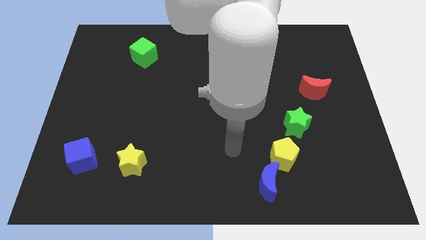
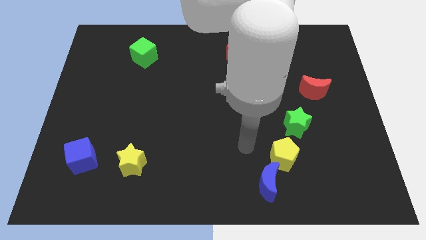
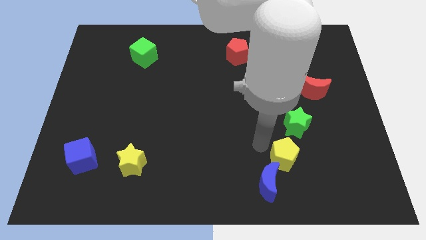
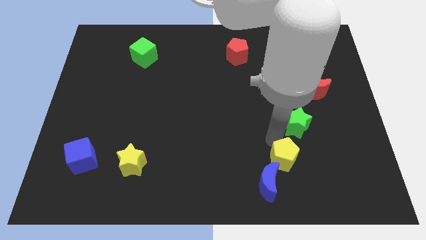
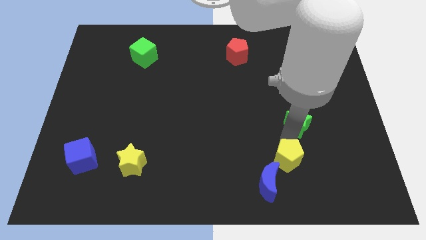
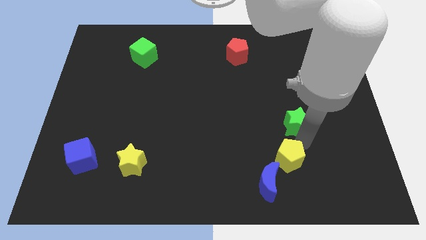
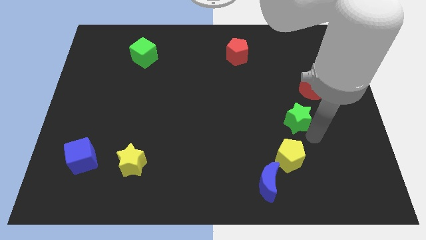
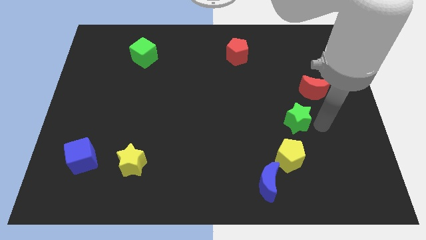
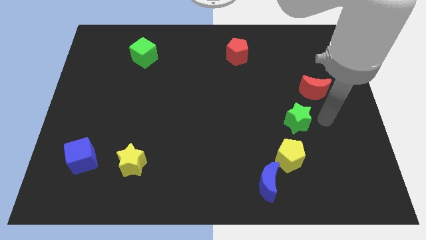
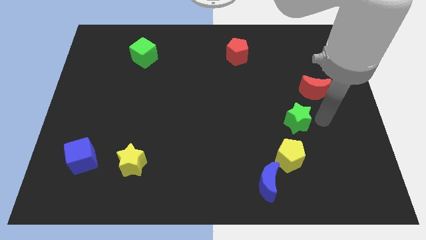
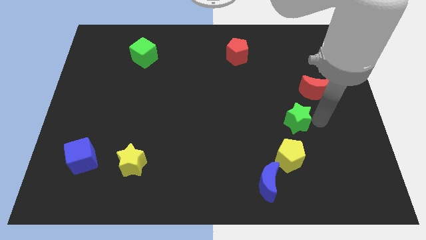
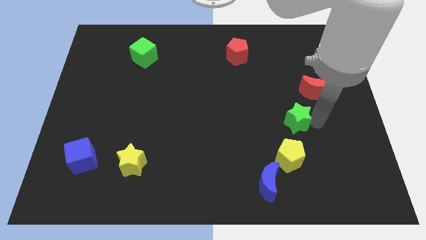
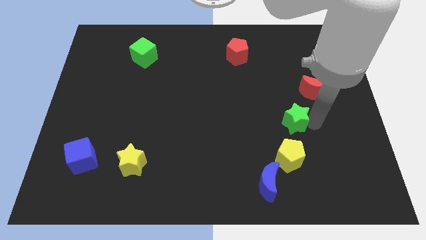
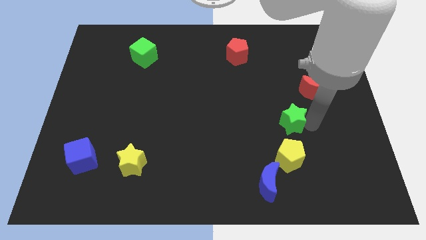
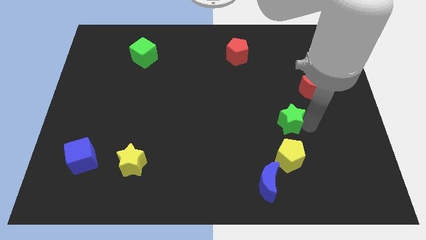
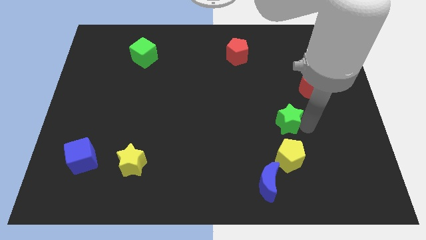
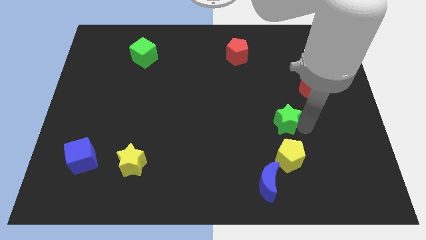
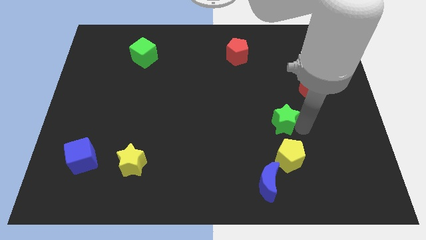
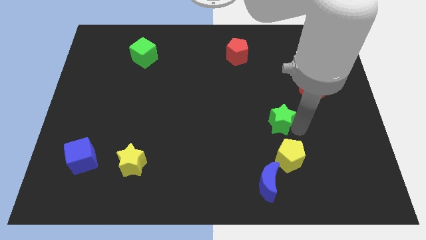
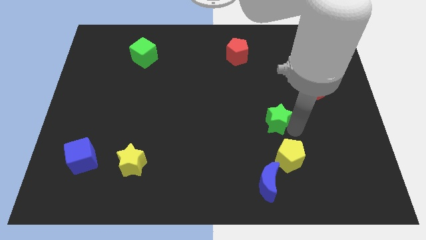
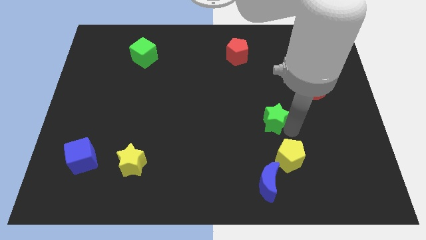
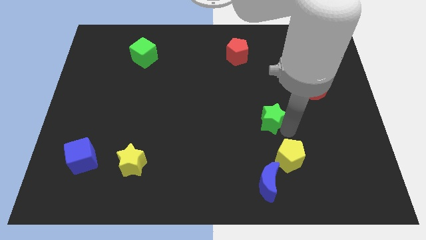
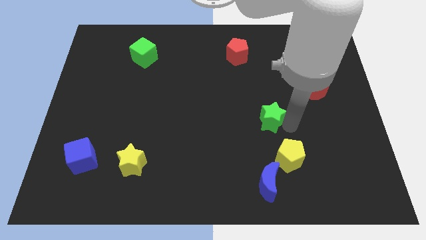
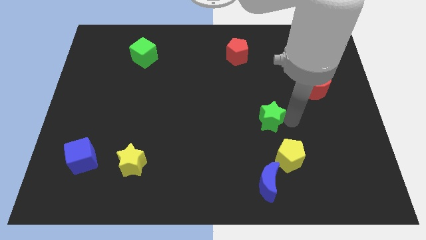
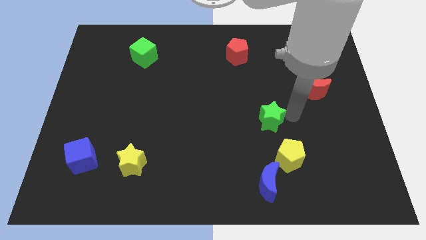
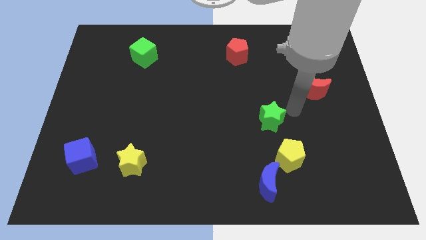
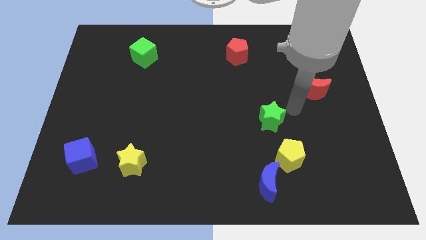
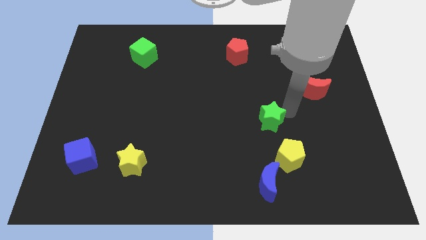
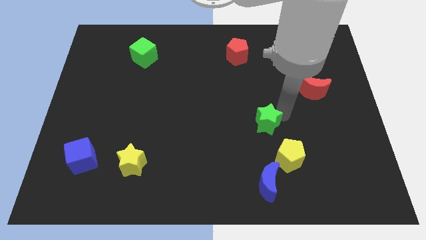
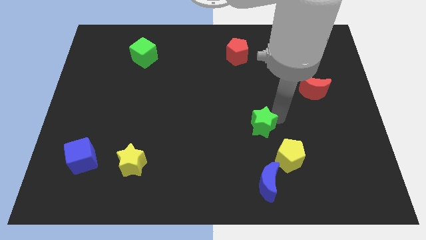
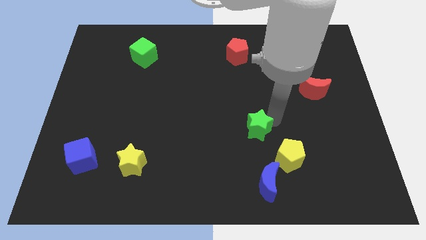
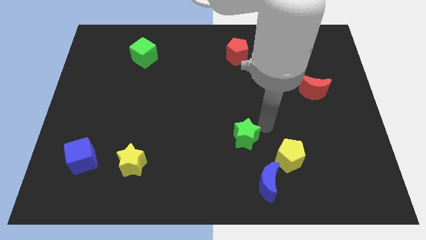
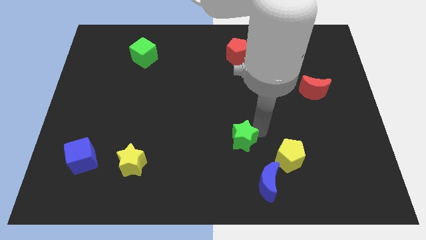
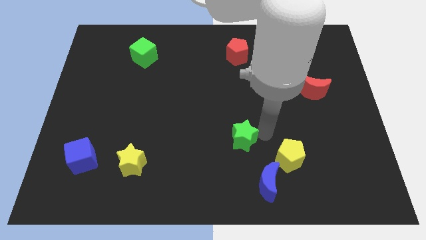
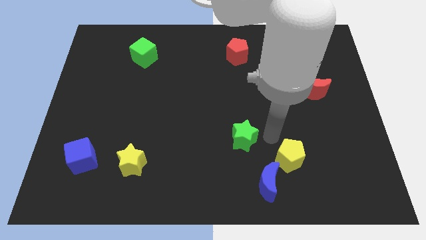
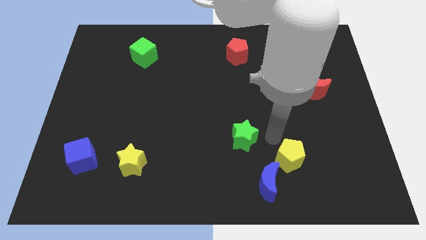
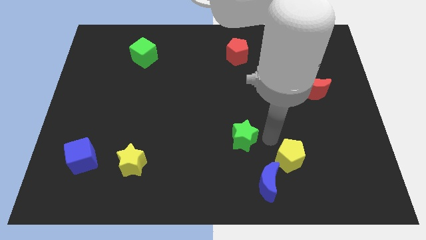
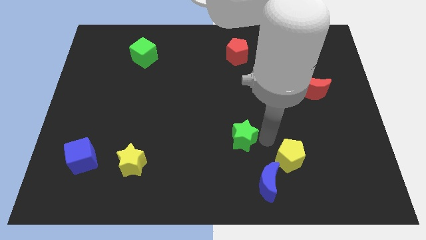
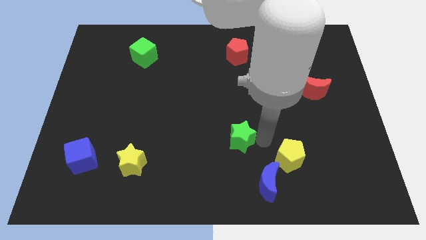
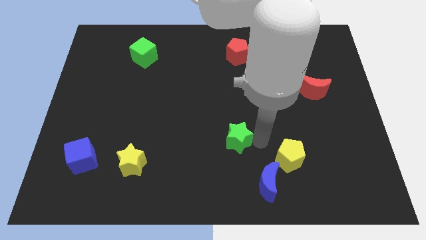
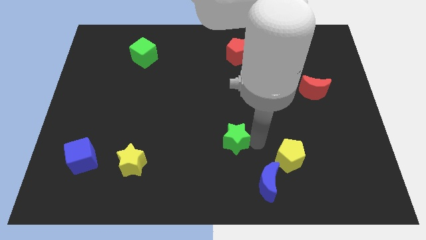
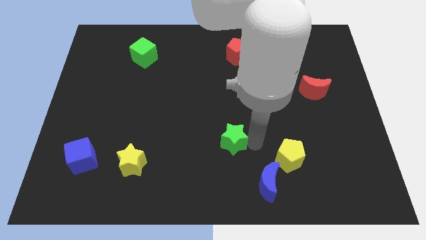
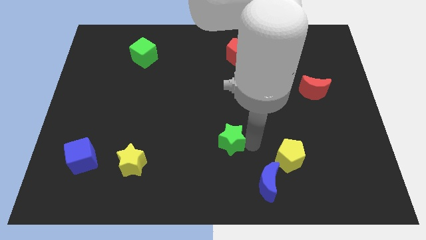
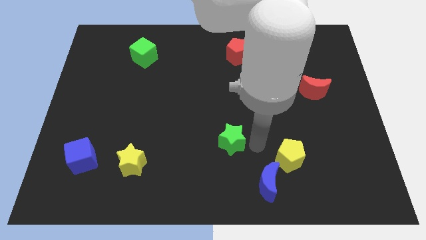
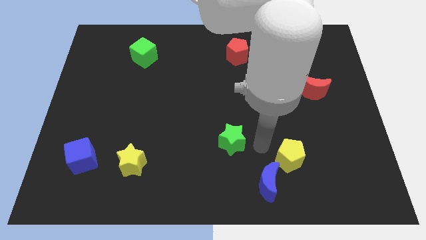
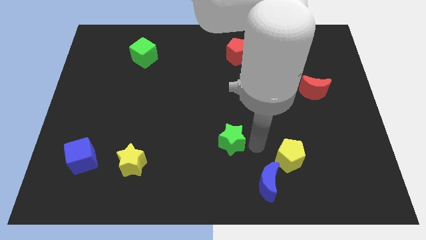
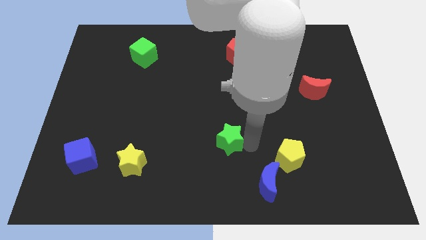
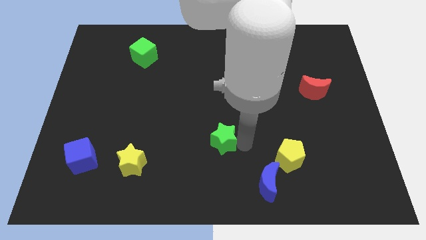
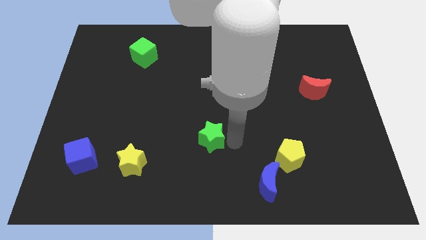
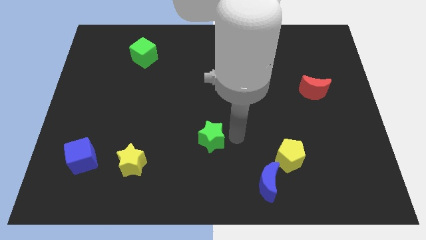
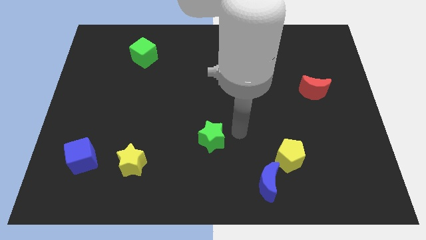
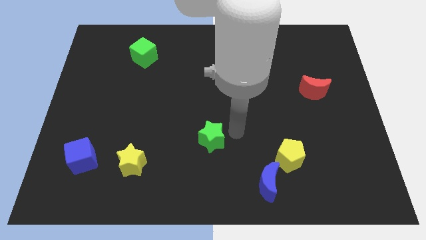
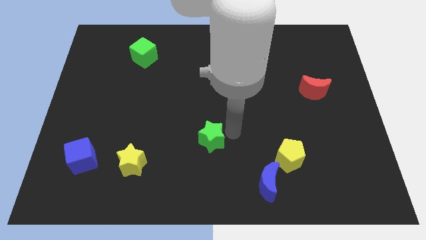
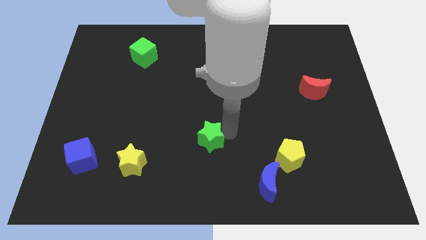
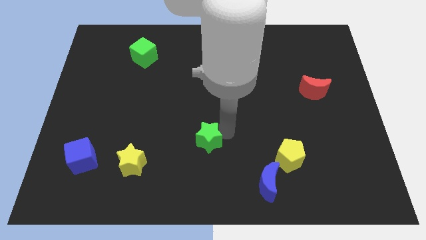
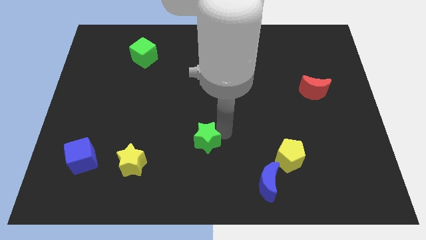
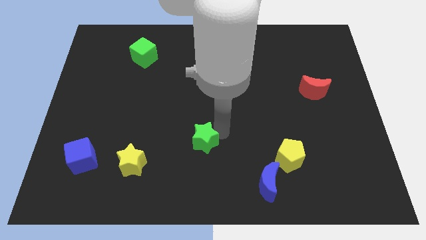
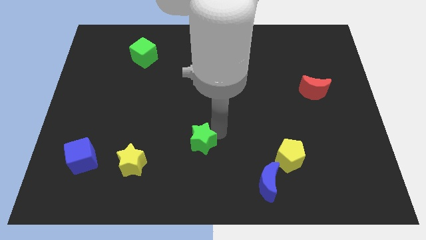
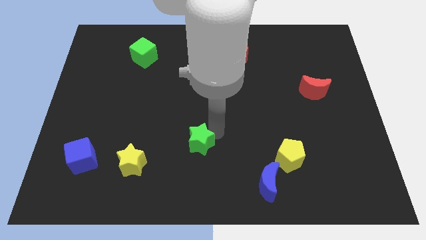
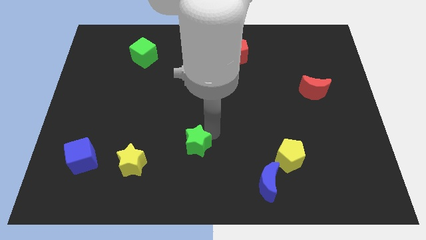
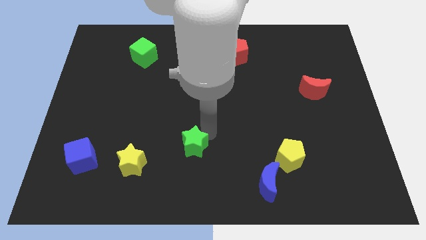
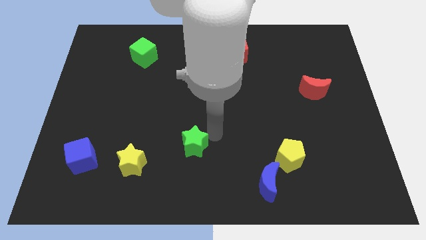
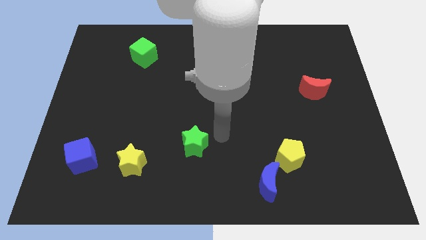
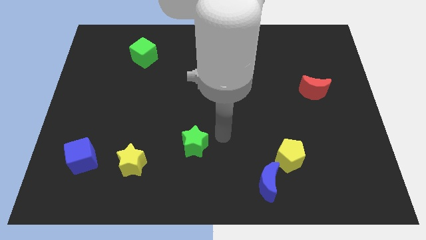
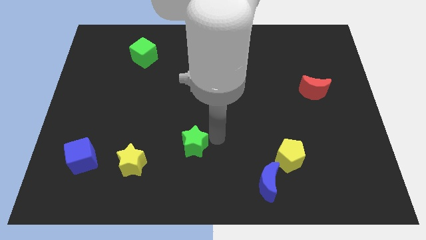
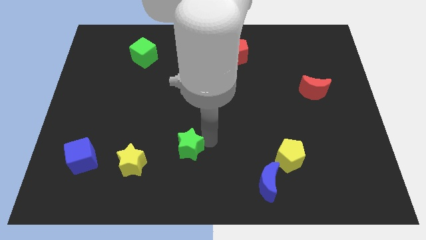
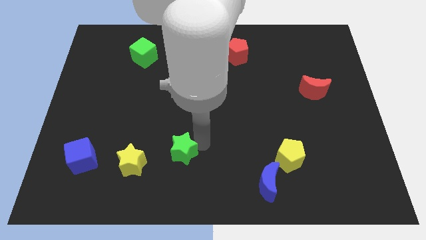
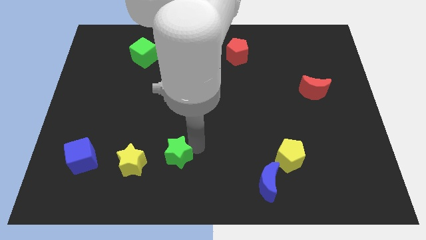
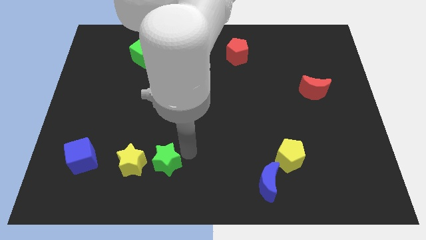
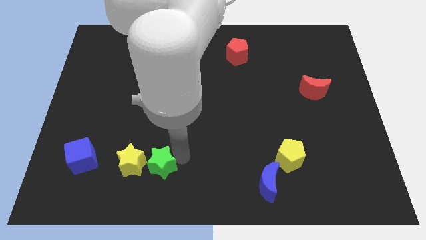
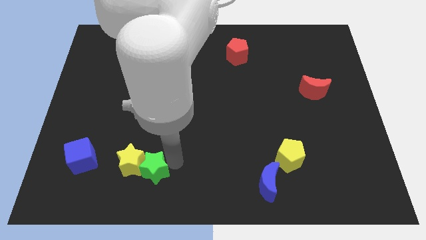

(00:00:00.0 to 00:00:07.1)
push the green star to the yellow star
